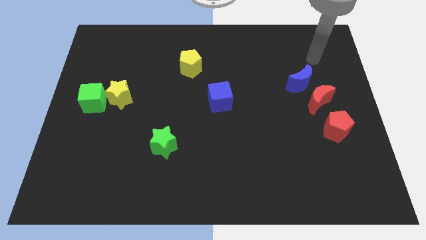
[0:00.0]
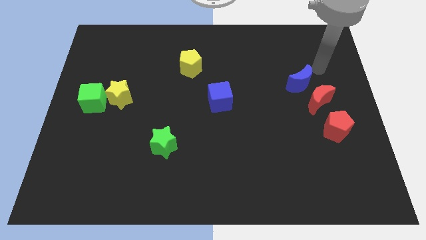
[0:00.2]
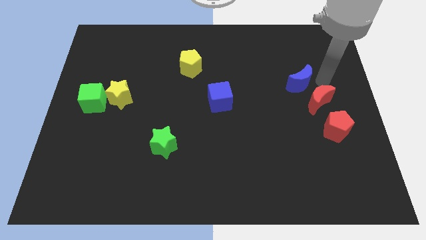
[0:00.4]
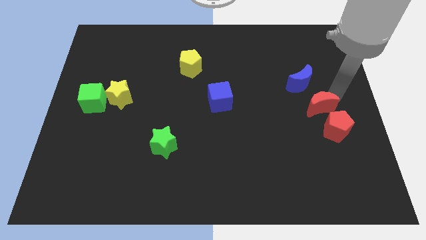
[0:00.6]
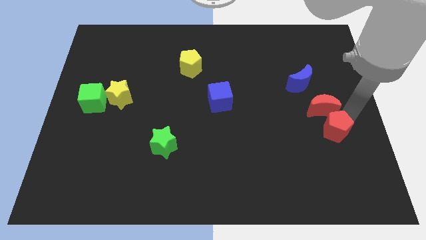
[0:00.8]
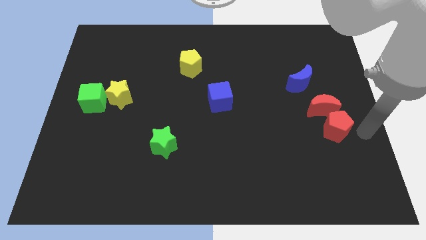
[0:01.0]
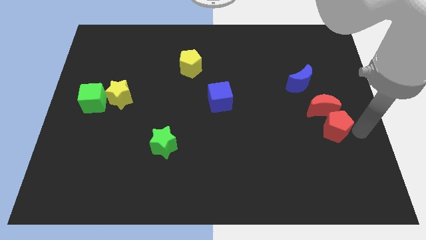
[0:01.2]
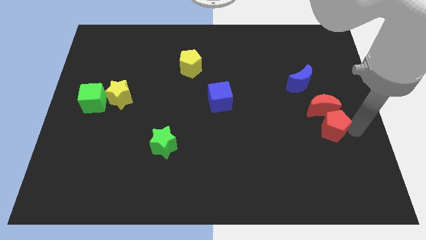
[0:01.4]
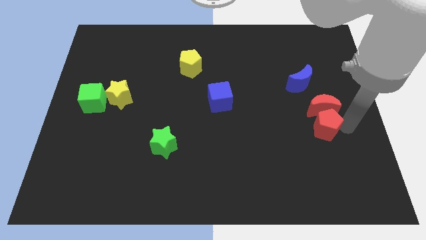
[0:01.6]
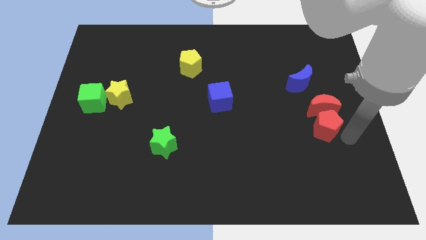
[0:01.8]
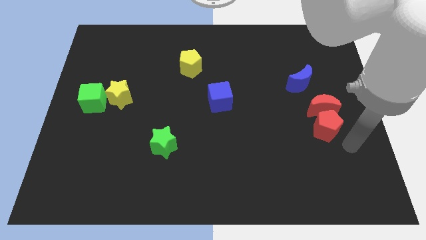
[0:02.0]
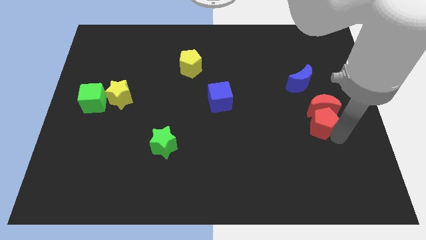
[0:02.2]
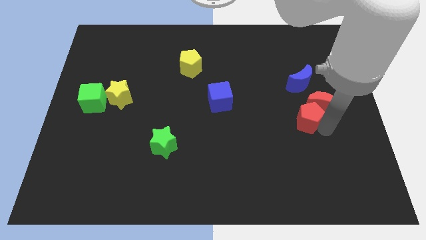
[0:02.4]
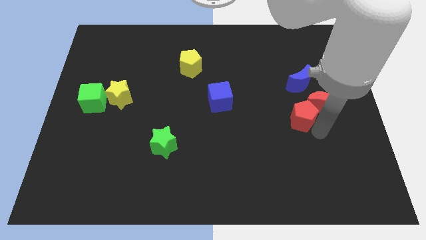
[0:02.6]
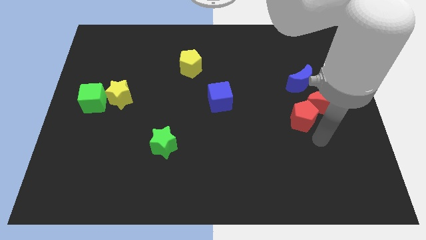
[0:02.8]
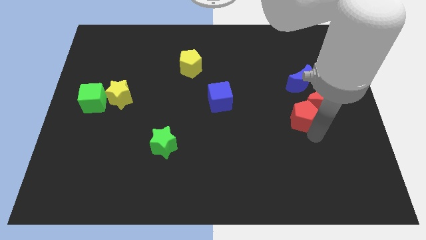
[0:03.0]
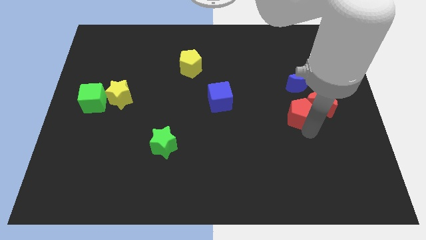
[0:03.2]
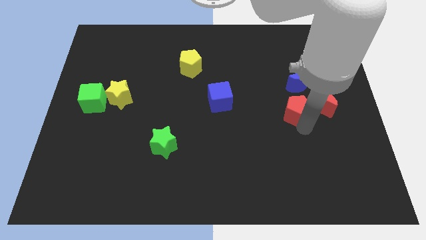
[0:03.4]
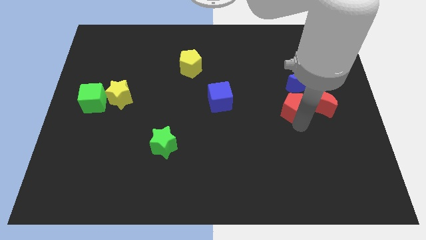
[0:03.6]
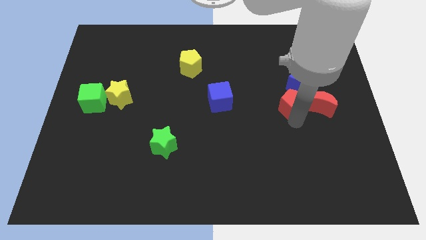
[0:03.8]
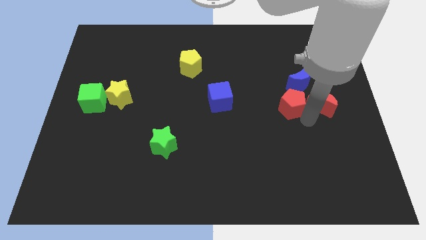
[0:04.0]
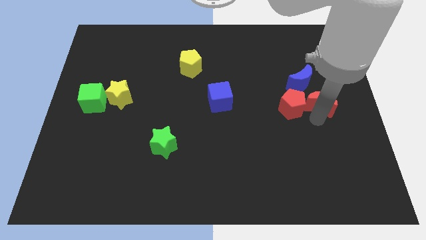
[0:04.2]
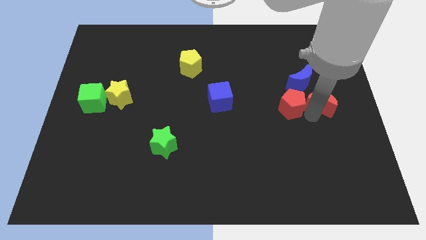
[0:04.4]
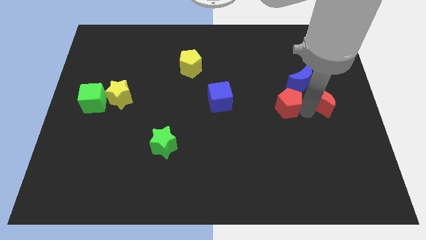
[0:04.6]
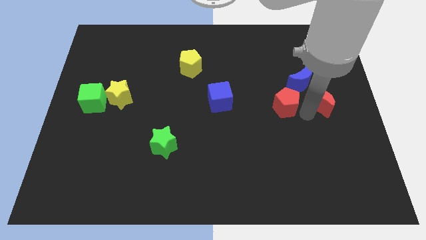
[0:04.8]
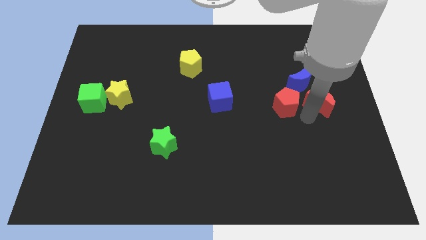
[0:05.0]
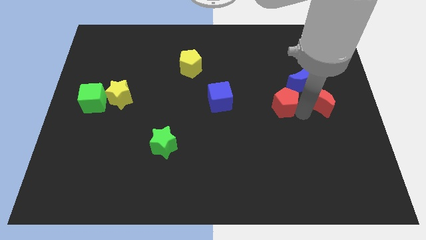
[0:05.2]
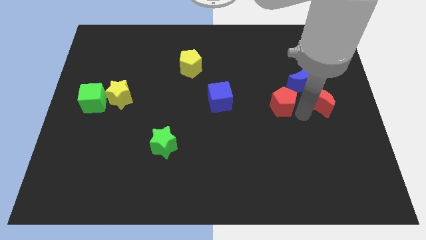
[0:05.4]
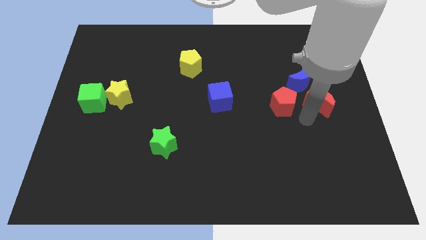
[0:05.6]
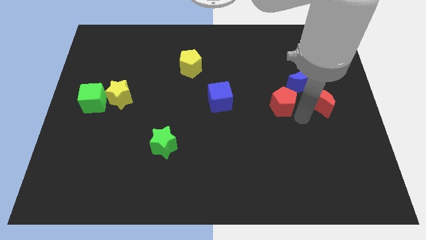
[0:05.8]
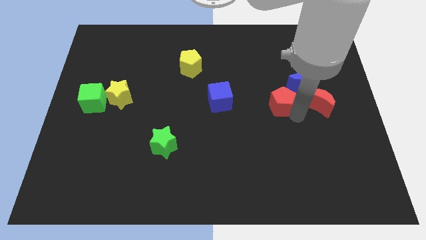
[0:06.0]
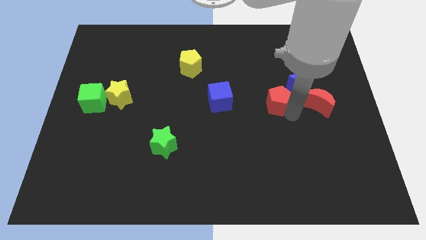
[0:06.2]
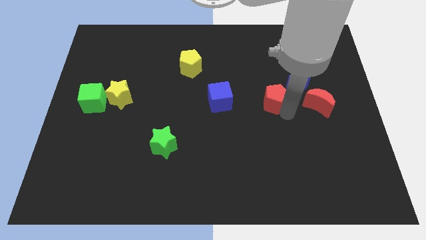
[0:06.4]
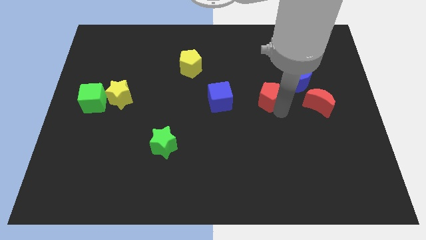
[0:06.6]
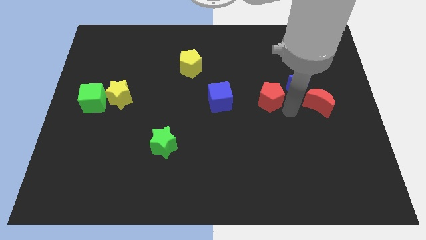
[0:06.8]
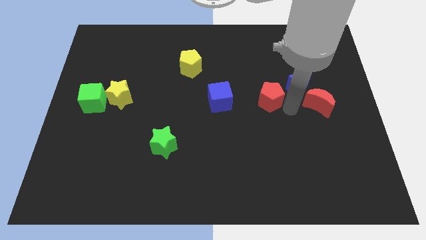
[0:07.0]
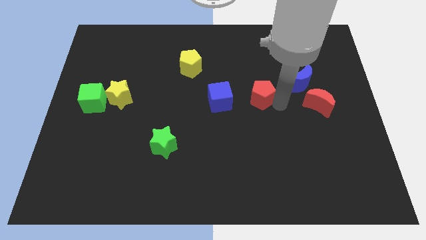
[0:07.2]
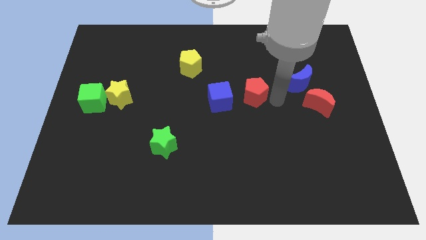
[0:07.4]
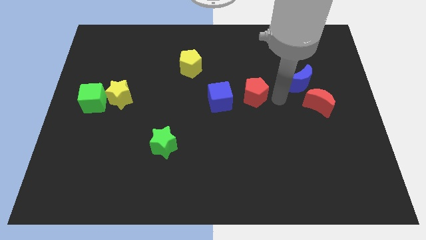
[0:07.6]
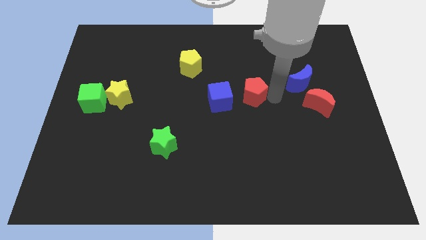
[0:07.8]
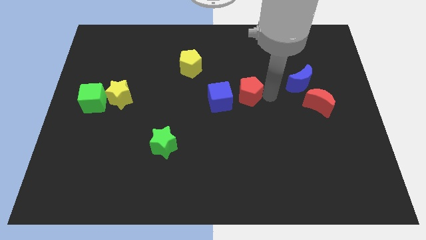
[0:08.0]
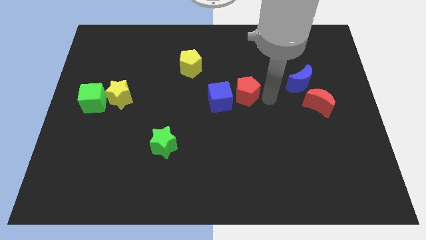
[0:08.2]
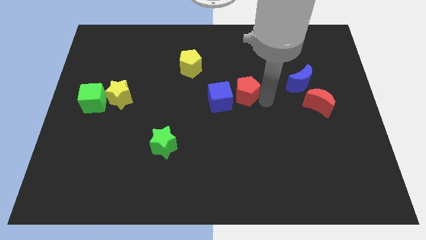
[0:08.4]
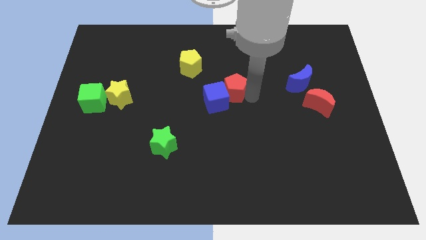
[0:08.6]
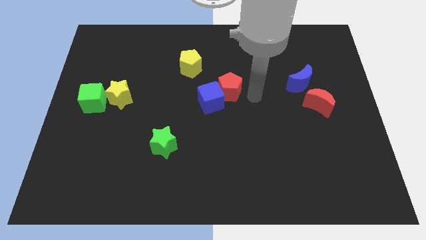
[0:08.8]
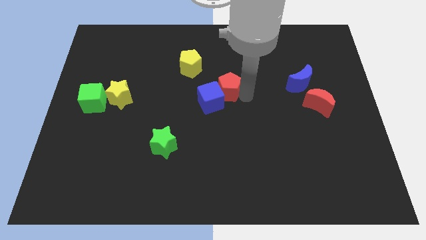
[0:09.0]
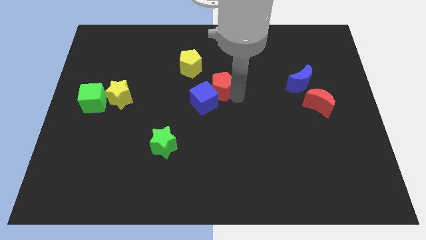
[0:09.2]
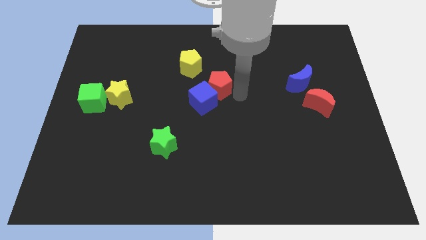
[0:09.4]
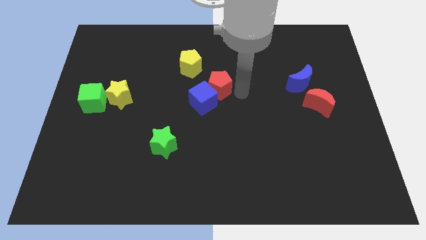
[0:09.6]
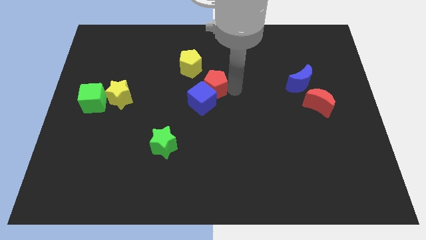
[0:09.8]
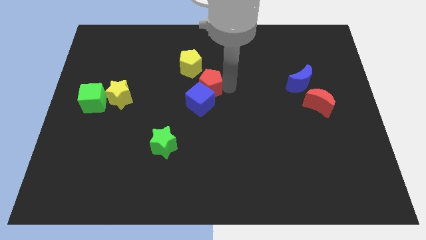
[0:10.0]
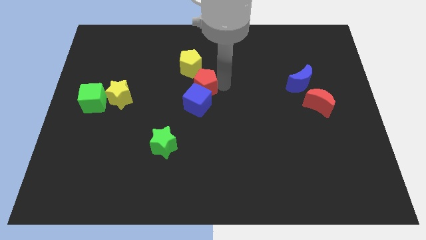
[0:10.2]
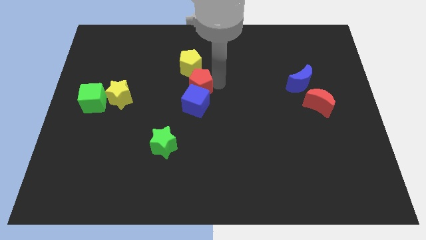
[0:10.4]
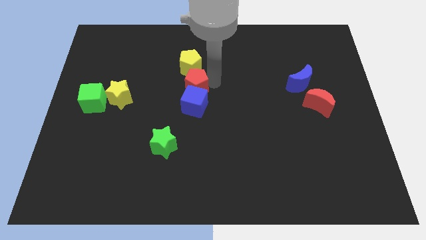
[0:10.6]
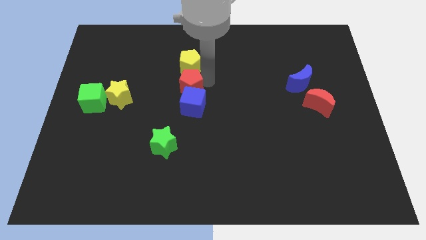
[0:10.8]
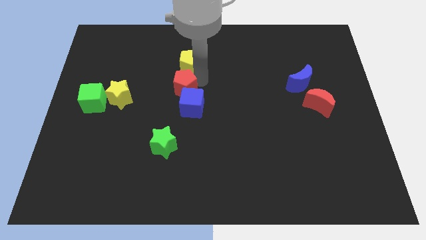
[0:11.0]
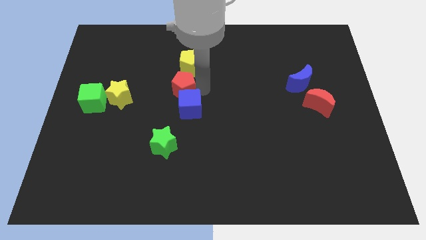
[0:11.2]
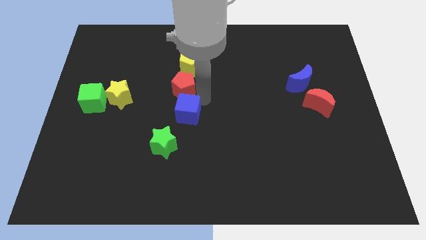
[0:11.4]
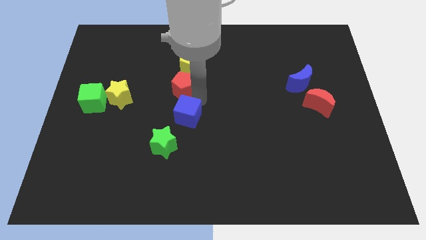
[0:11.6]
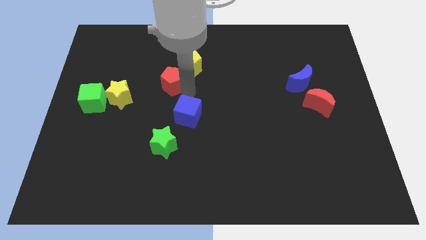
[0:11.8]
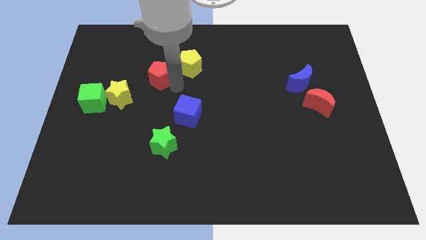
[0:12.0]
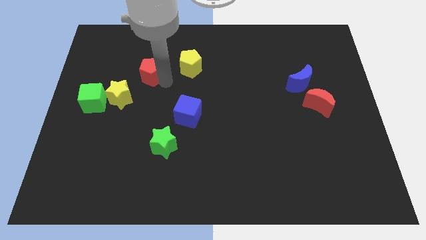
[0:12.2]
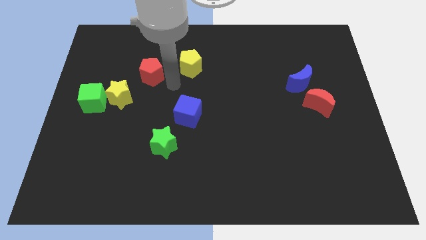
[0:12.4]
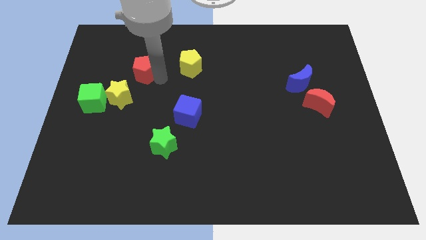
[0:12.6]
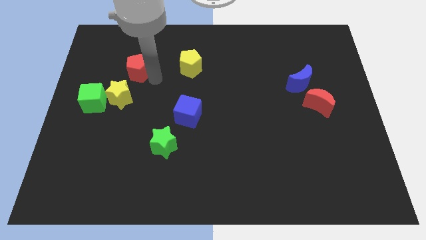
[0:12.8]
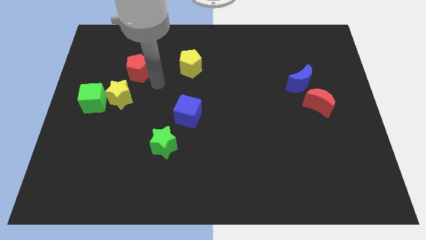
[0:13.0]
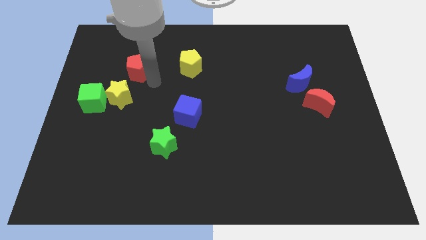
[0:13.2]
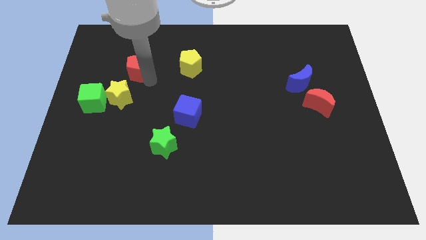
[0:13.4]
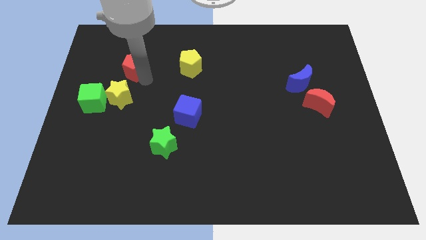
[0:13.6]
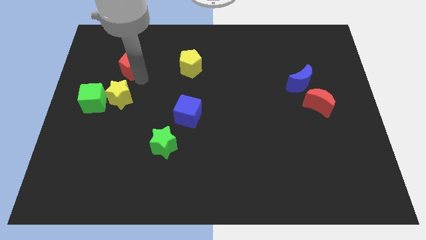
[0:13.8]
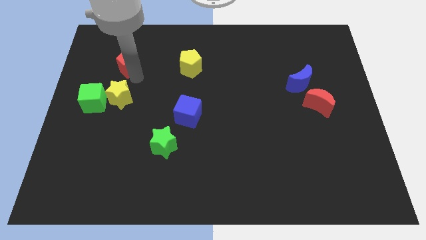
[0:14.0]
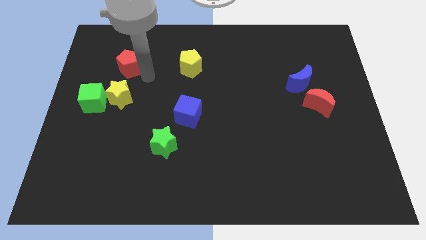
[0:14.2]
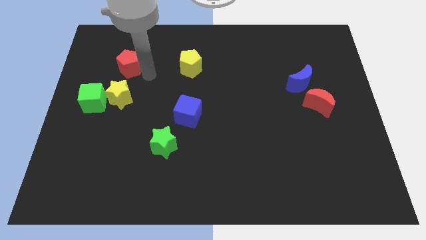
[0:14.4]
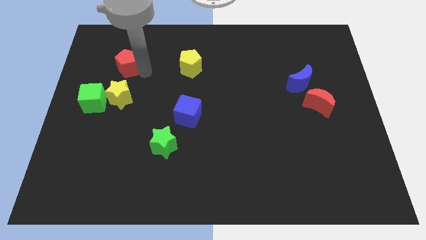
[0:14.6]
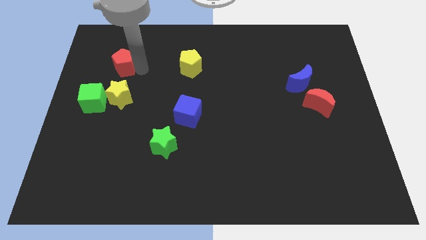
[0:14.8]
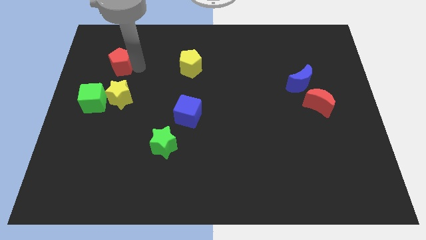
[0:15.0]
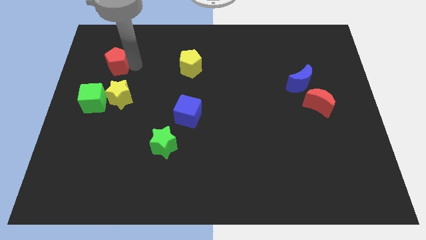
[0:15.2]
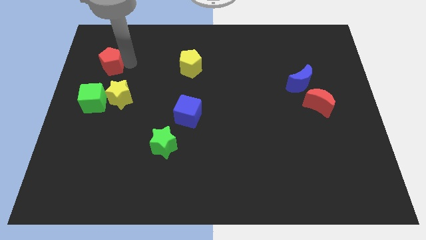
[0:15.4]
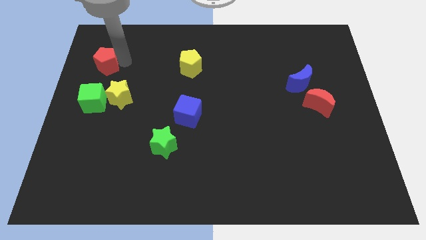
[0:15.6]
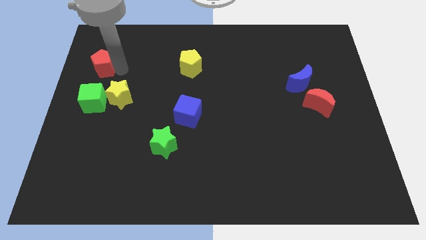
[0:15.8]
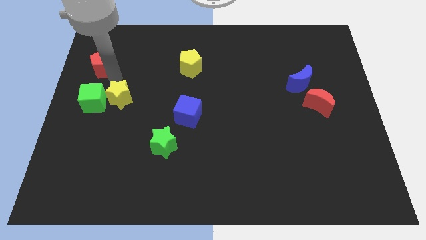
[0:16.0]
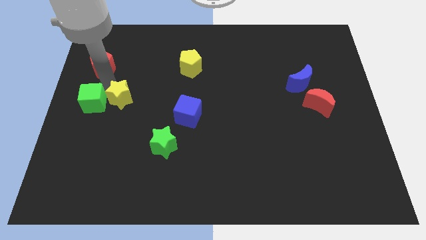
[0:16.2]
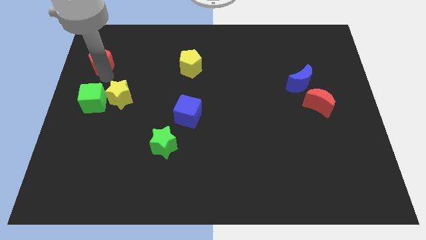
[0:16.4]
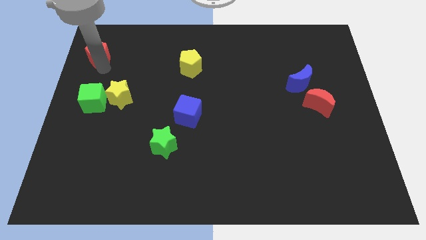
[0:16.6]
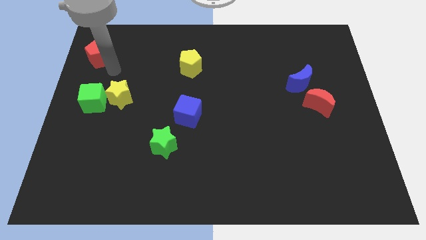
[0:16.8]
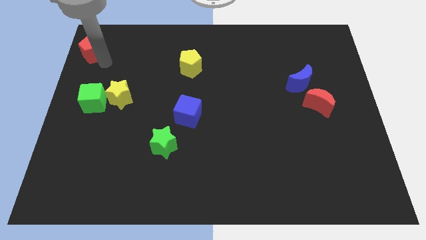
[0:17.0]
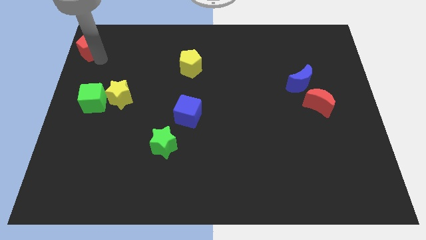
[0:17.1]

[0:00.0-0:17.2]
put the red pentagon to the upper left corner
